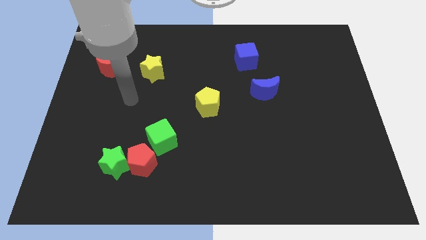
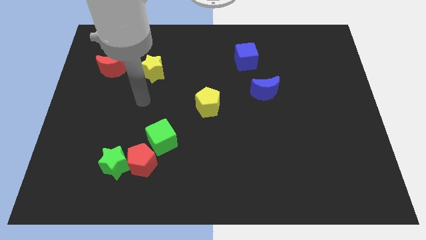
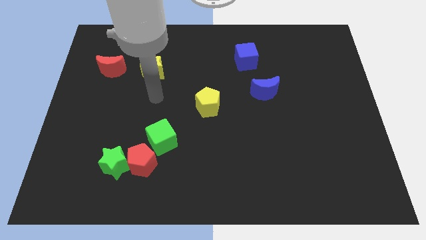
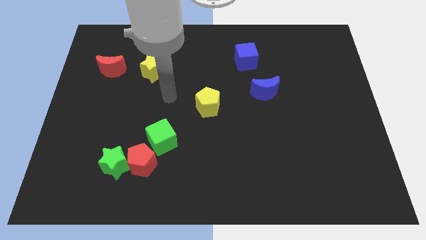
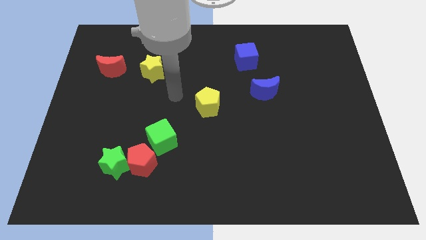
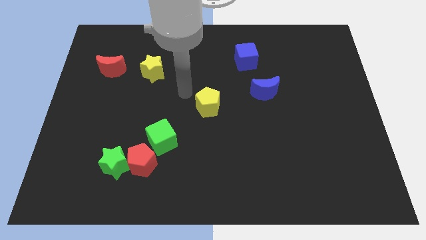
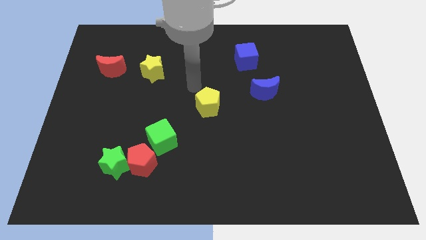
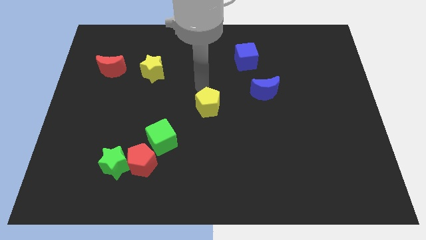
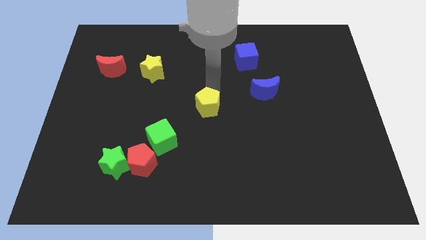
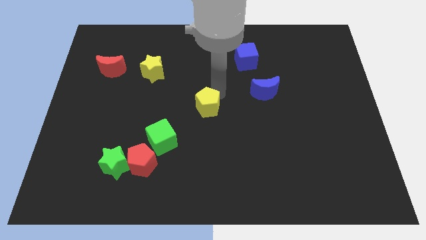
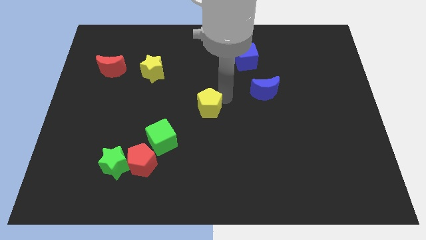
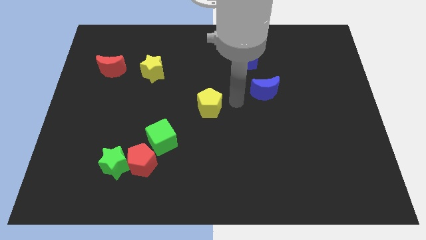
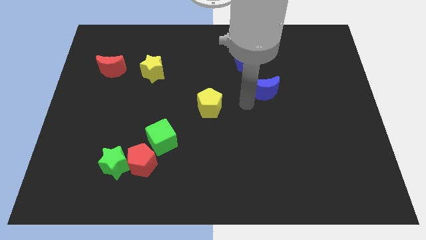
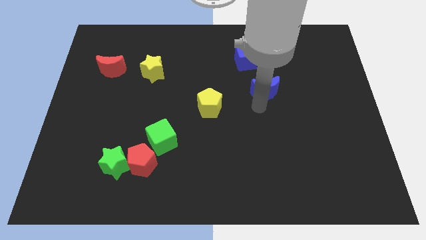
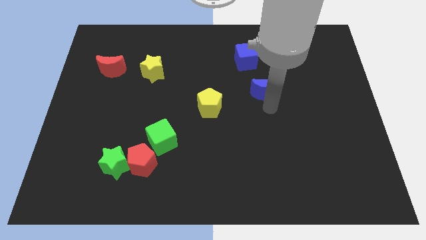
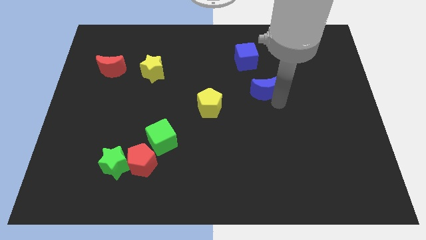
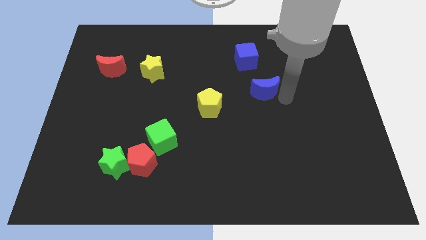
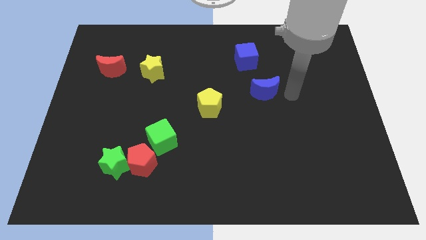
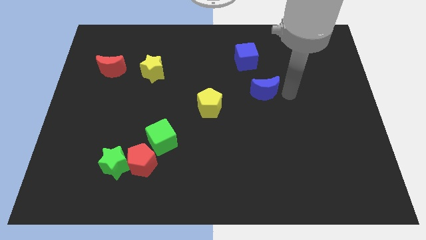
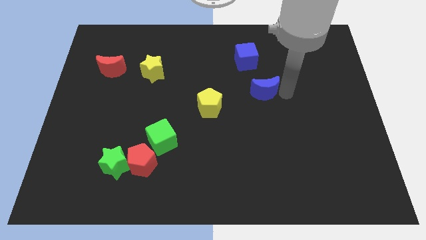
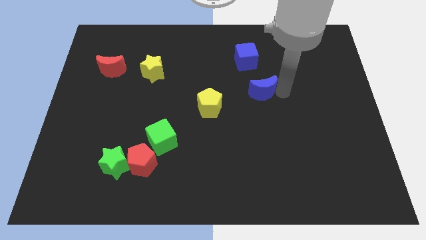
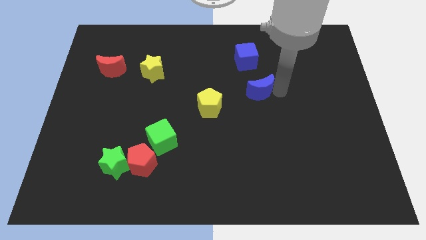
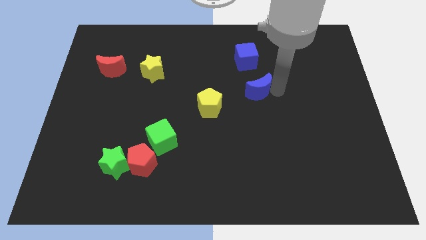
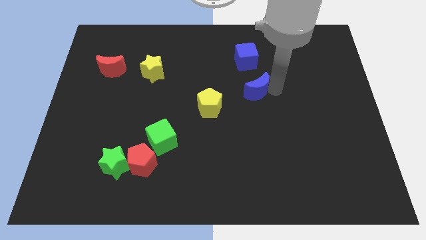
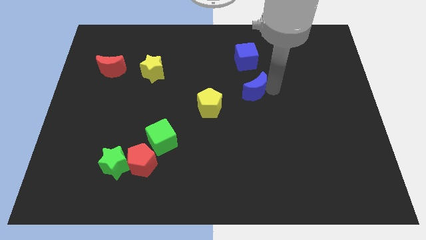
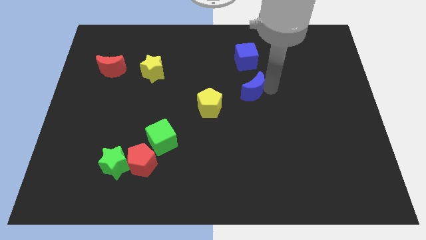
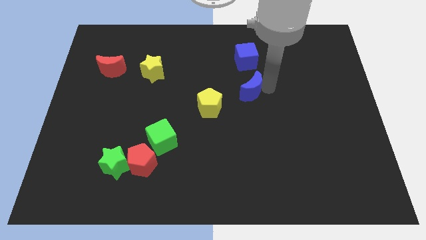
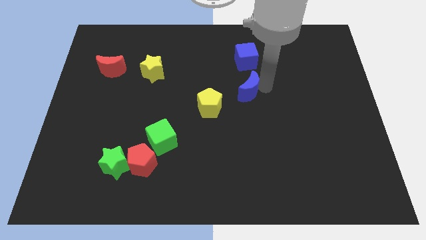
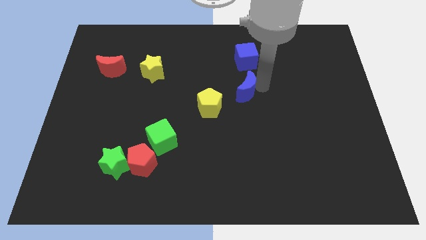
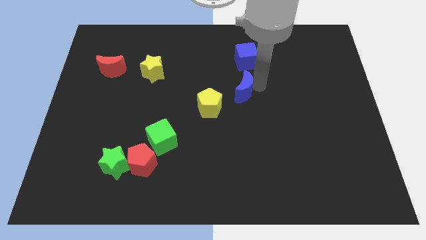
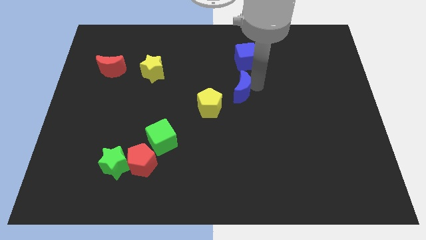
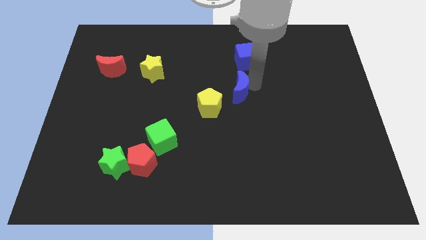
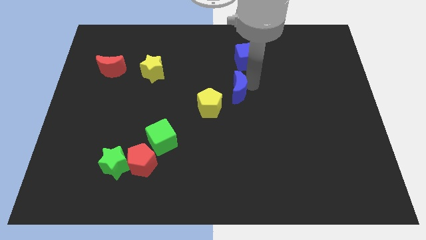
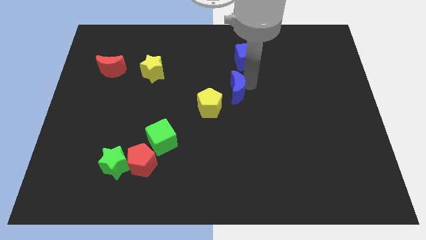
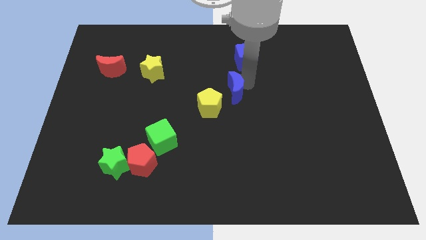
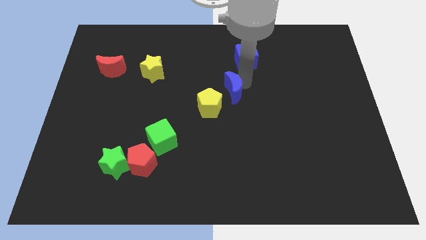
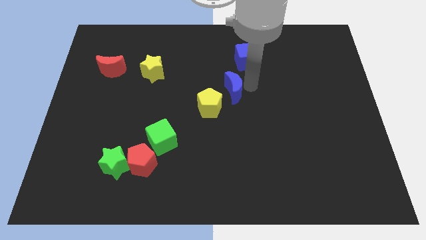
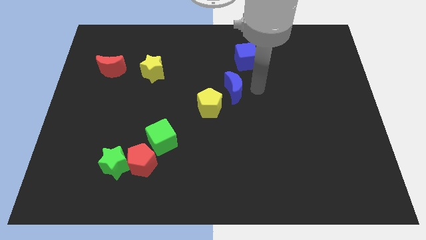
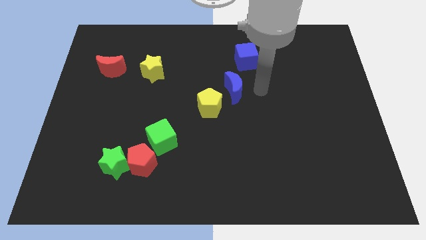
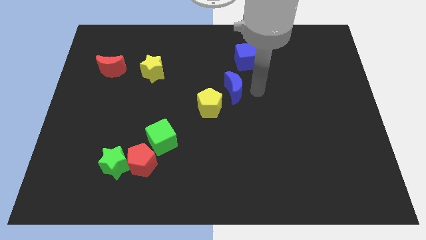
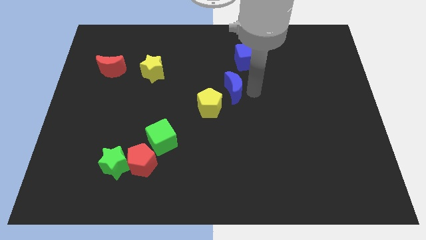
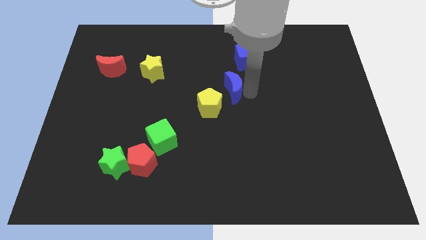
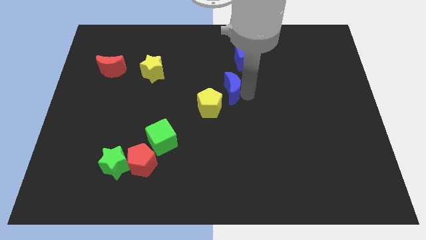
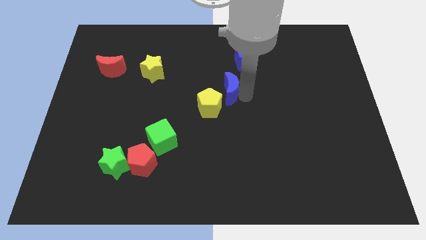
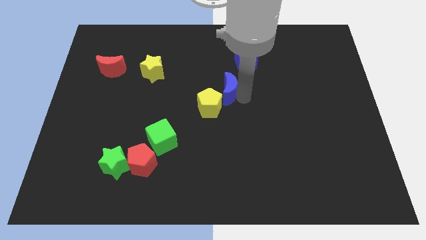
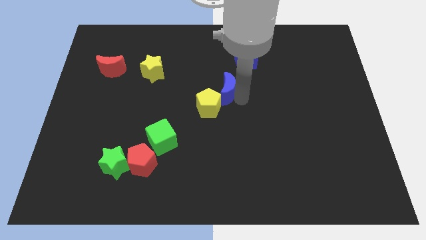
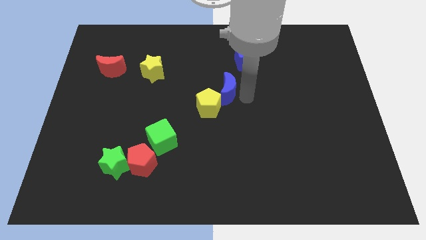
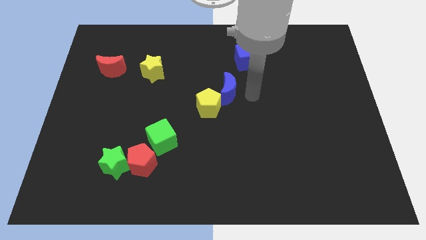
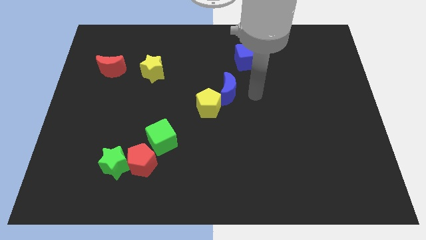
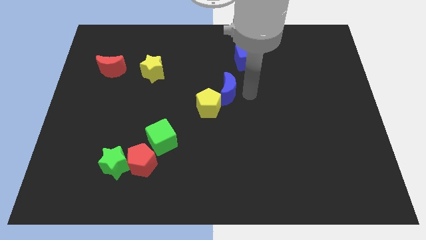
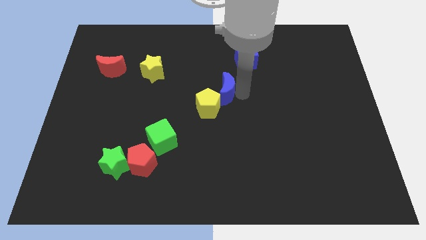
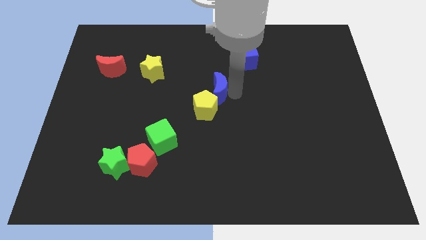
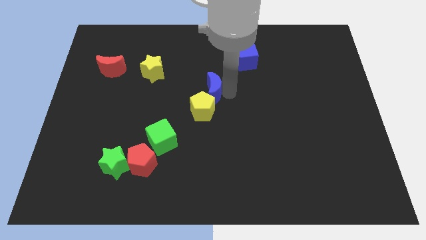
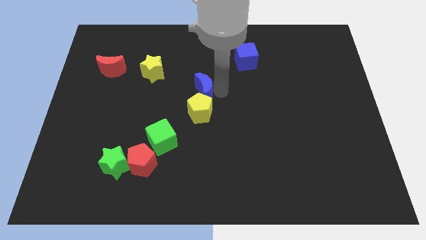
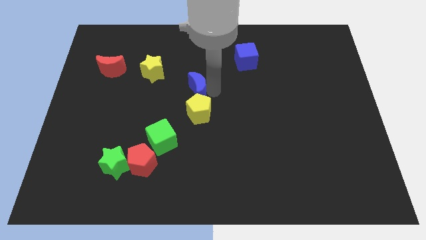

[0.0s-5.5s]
put the blue moon to the top left side of the yellow pentagon

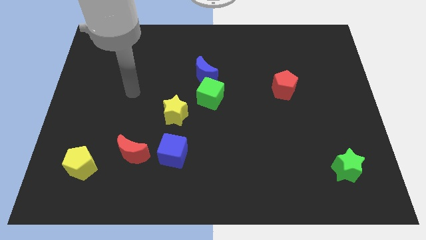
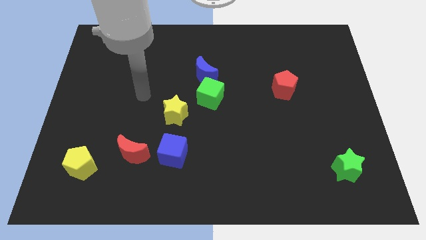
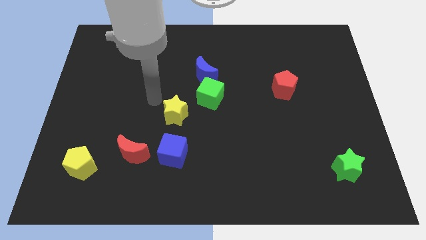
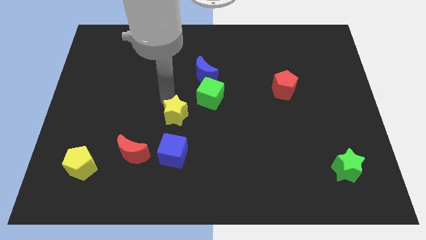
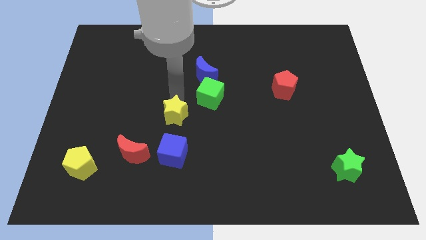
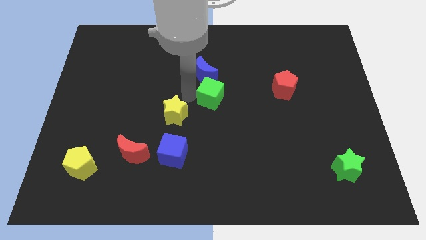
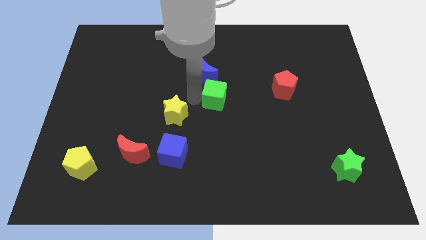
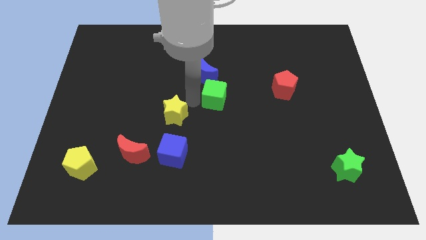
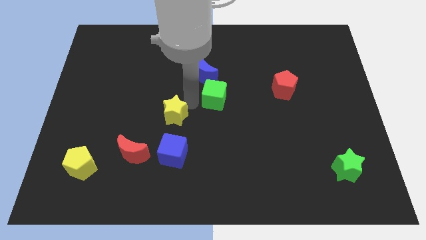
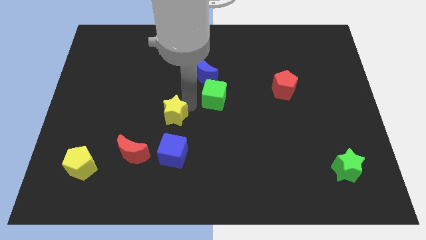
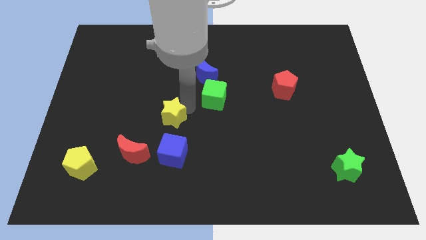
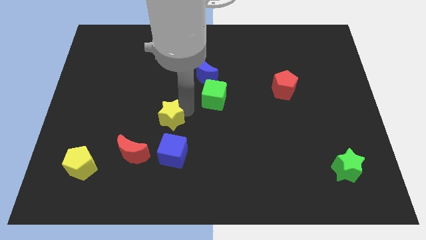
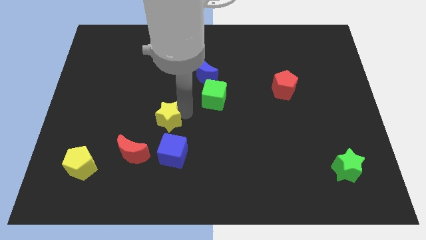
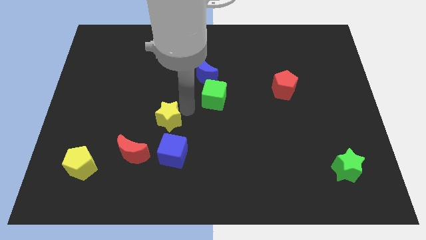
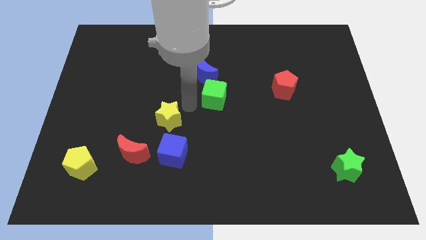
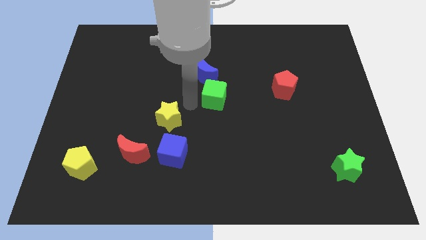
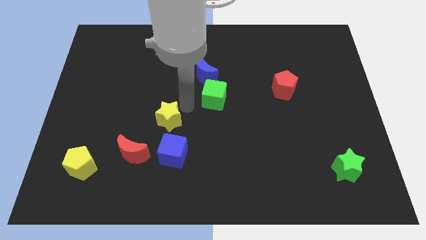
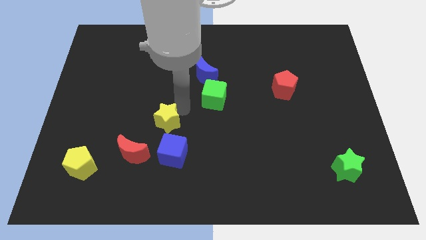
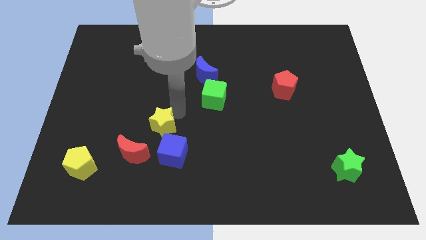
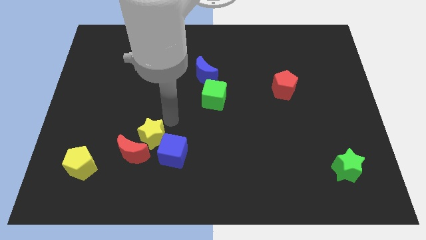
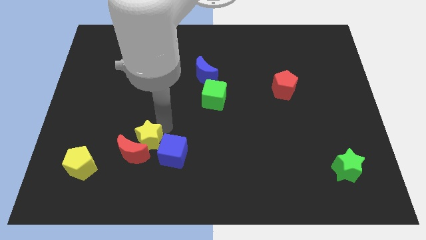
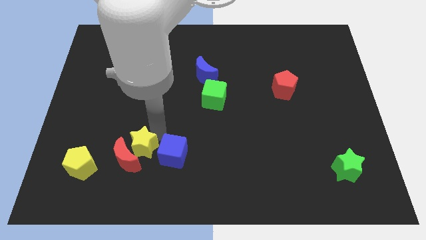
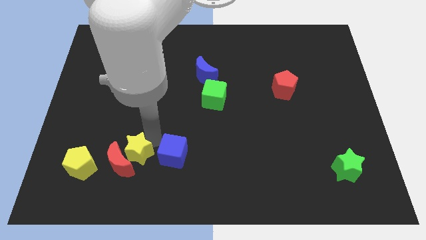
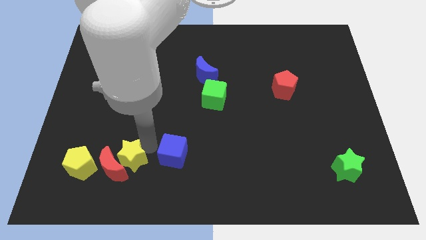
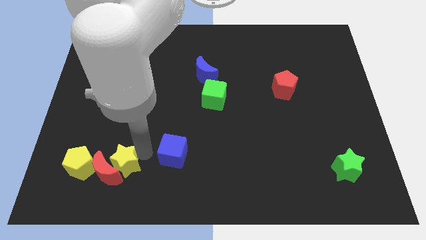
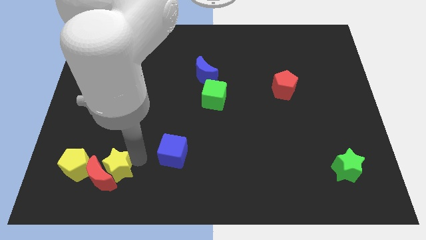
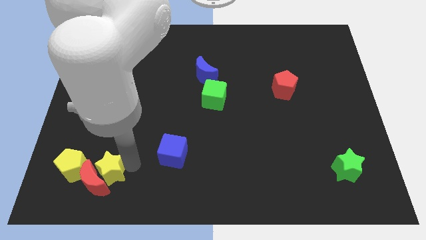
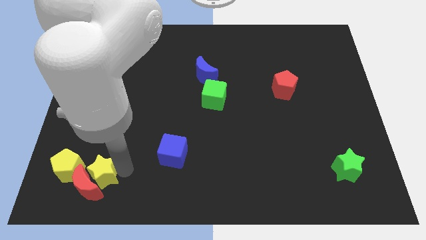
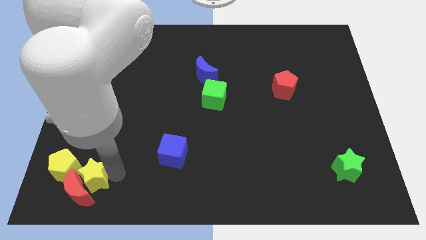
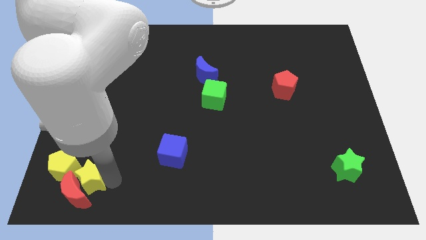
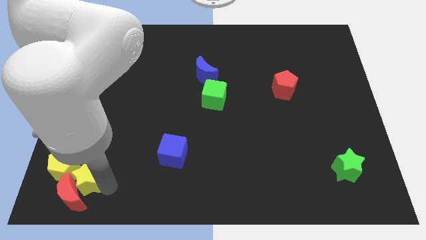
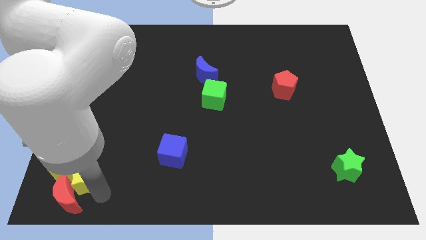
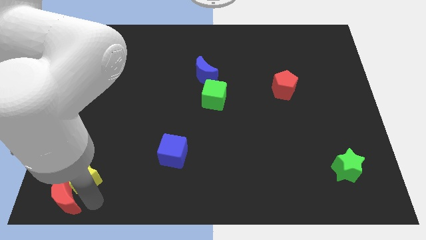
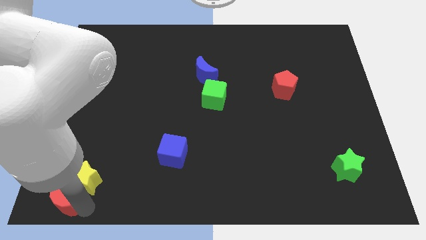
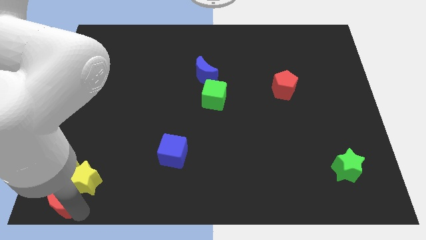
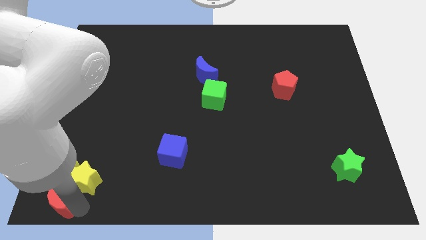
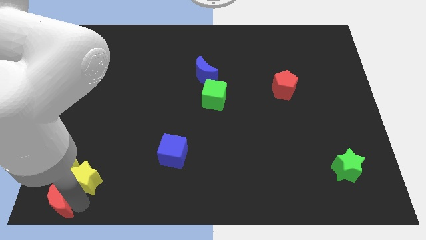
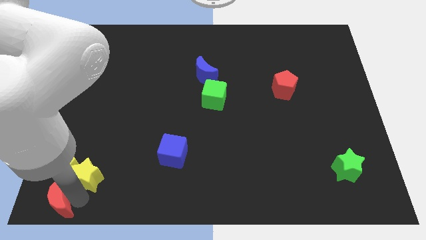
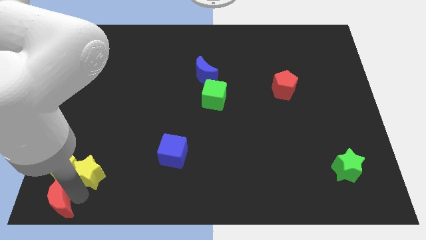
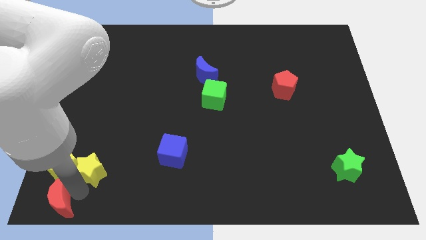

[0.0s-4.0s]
put the yellow star to the top right of the yellow pentagon
